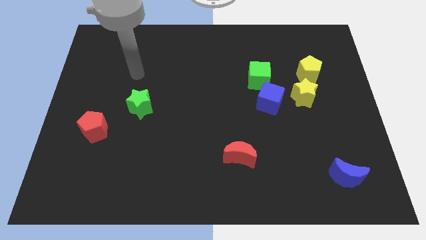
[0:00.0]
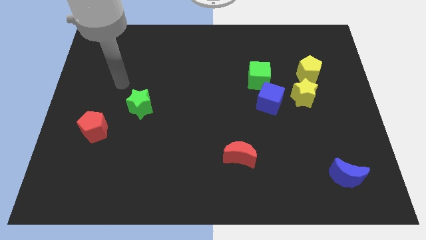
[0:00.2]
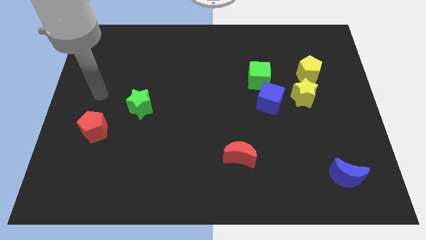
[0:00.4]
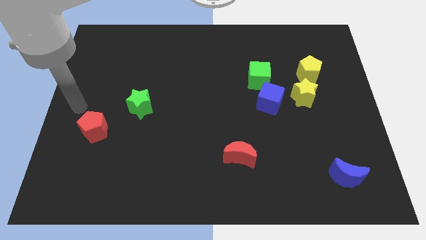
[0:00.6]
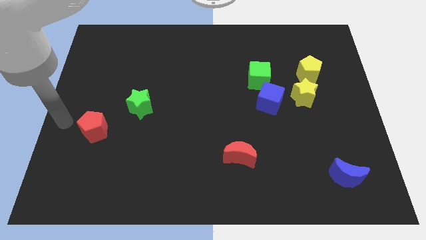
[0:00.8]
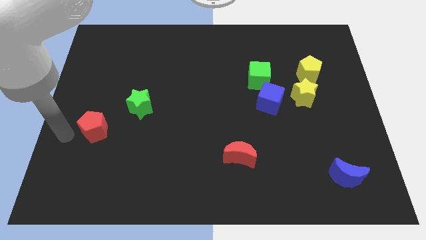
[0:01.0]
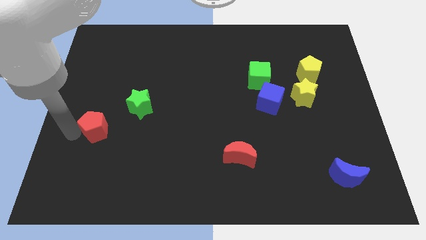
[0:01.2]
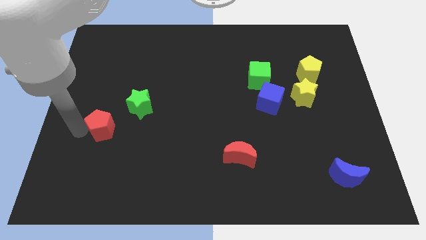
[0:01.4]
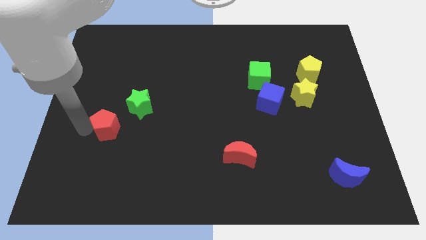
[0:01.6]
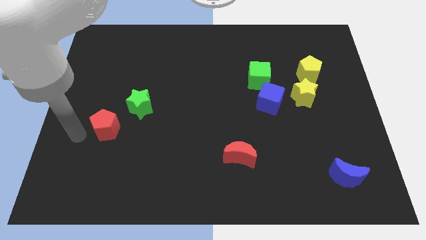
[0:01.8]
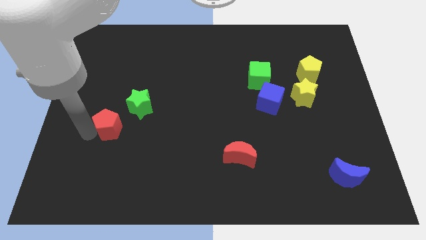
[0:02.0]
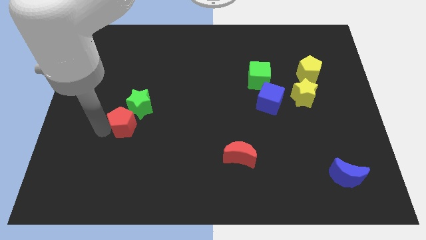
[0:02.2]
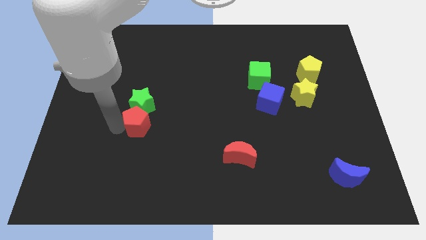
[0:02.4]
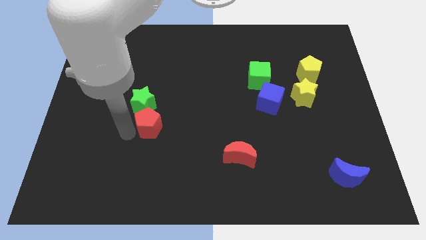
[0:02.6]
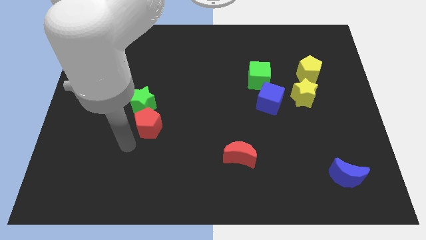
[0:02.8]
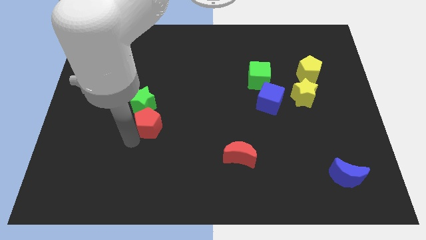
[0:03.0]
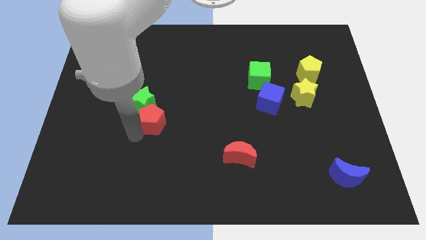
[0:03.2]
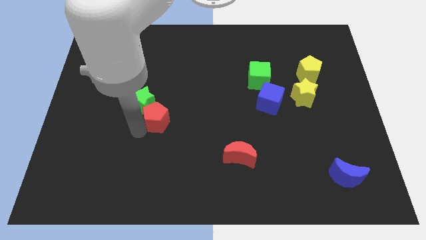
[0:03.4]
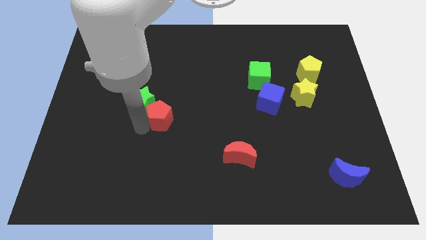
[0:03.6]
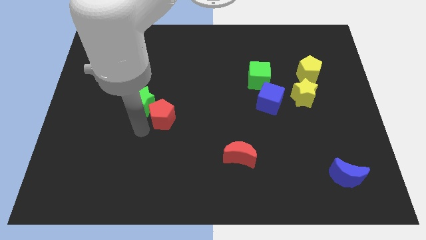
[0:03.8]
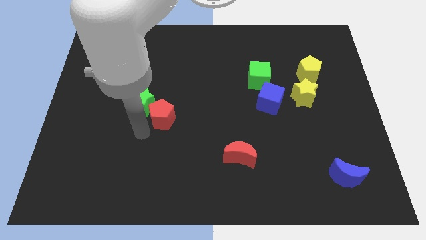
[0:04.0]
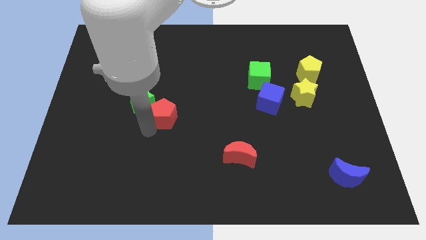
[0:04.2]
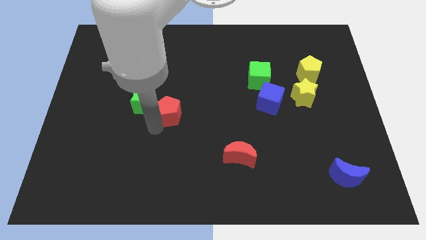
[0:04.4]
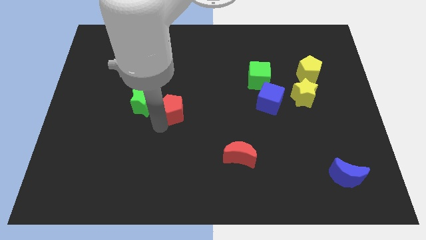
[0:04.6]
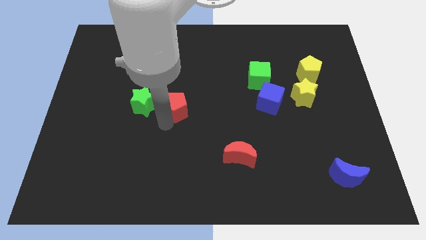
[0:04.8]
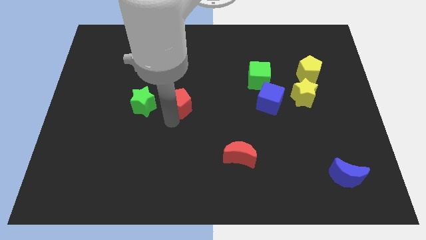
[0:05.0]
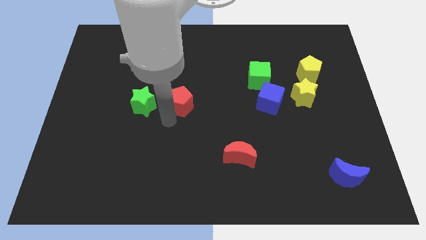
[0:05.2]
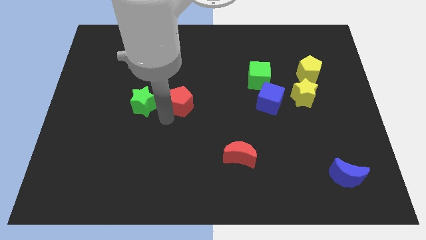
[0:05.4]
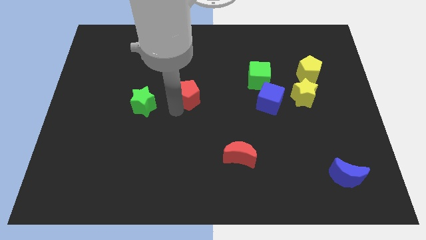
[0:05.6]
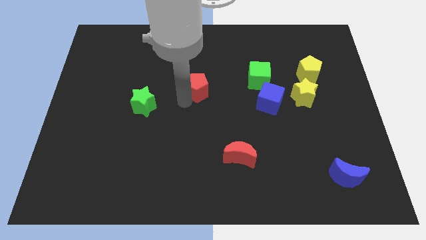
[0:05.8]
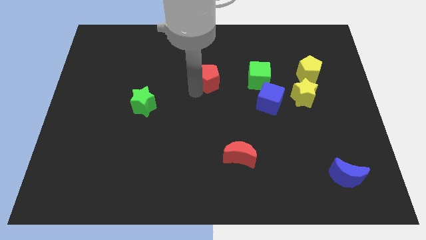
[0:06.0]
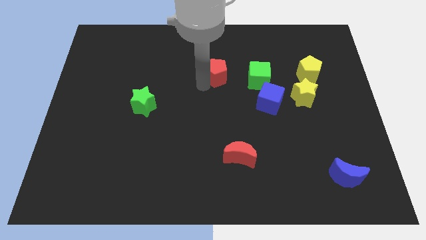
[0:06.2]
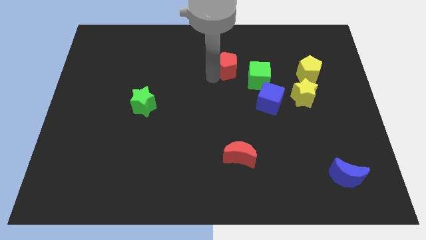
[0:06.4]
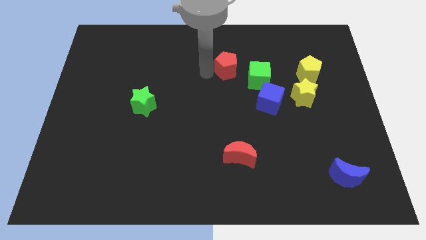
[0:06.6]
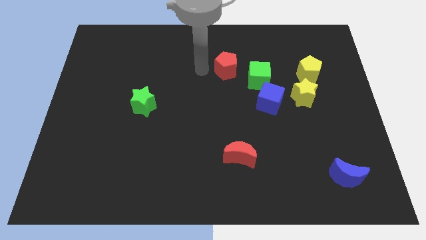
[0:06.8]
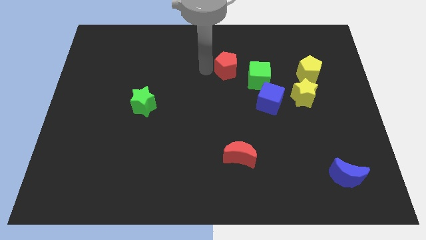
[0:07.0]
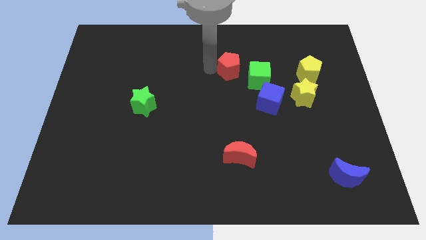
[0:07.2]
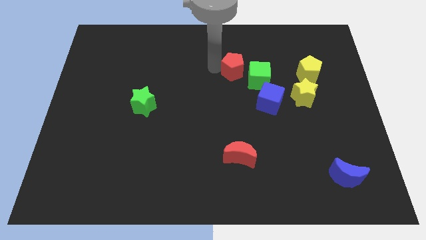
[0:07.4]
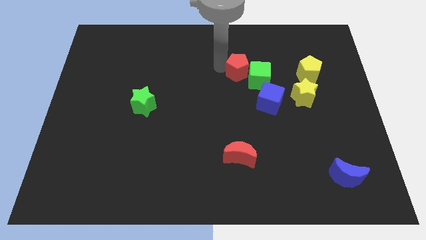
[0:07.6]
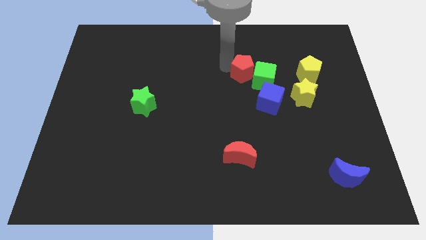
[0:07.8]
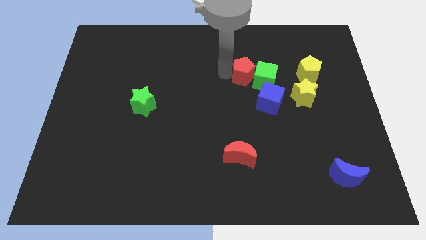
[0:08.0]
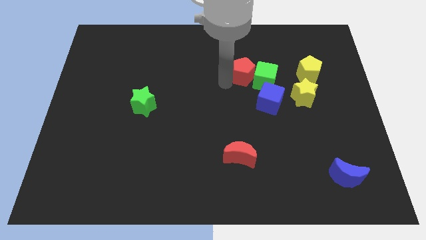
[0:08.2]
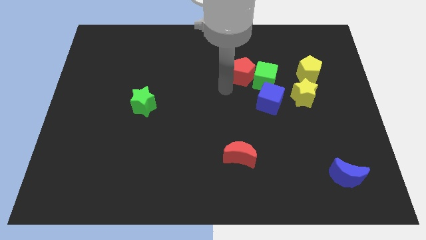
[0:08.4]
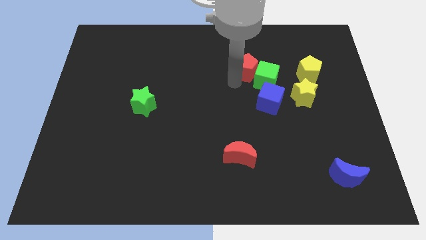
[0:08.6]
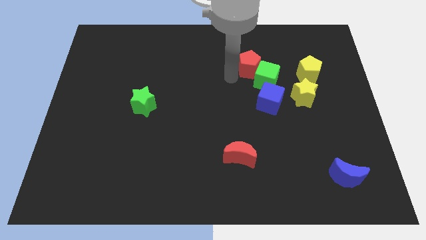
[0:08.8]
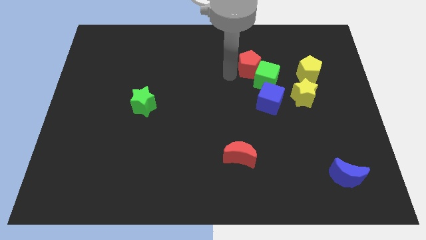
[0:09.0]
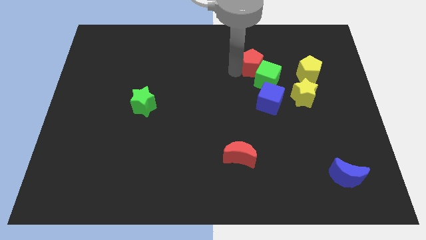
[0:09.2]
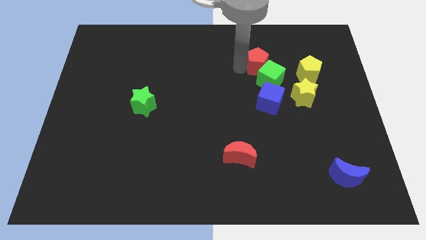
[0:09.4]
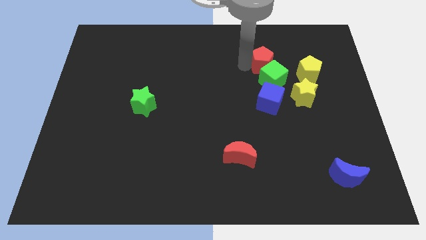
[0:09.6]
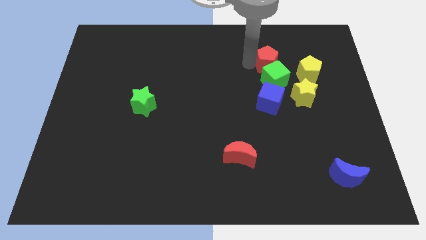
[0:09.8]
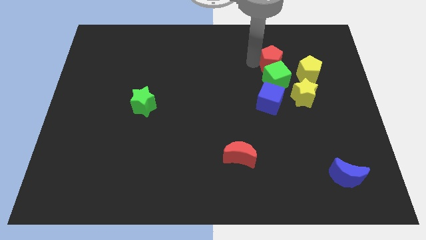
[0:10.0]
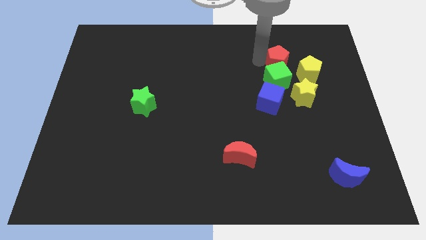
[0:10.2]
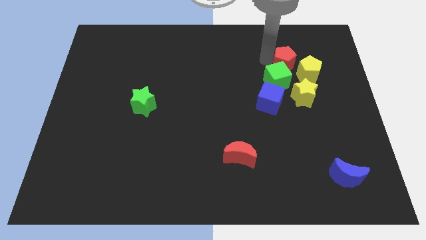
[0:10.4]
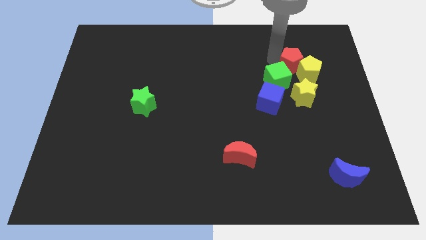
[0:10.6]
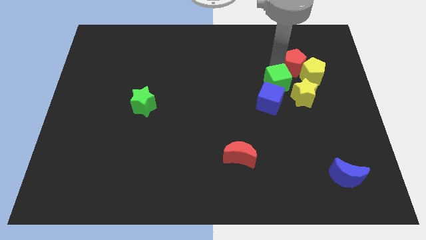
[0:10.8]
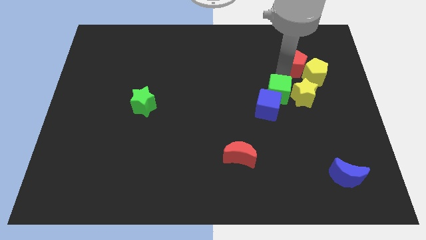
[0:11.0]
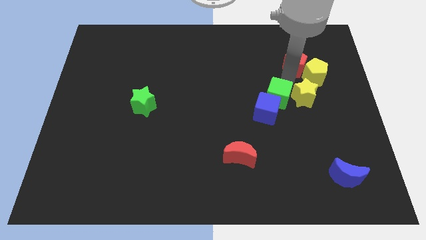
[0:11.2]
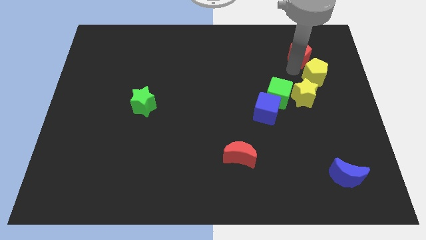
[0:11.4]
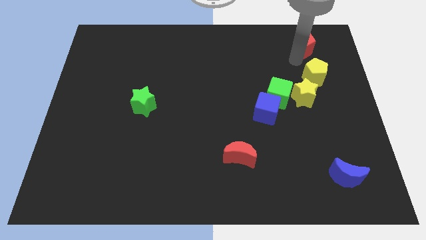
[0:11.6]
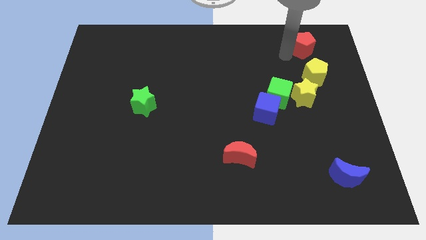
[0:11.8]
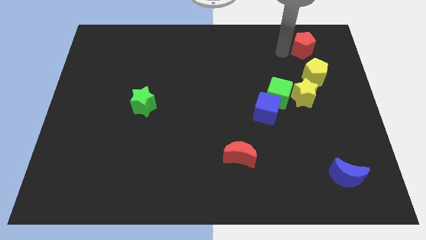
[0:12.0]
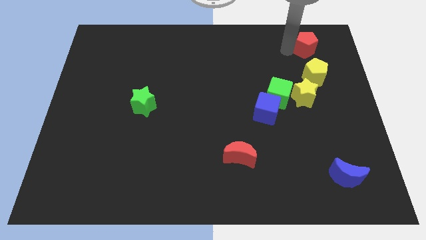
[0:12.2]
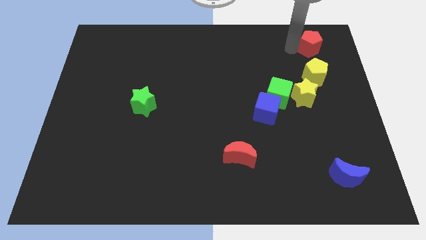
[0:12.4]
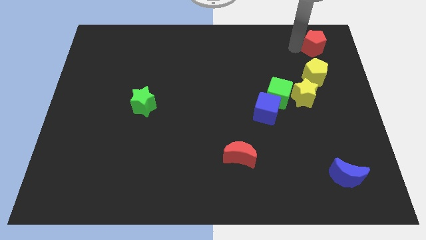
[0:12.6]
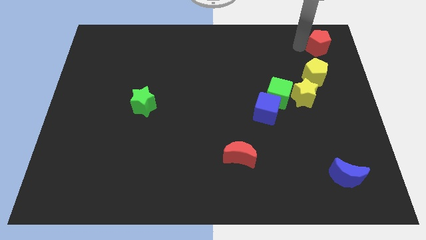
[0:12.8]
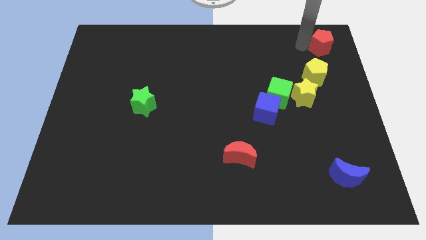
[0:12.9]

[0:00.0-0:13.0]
move the red pentagon to the upper right corner
